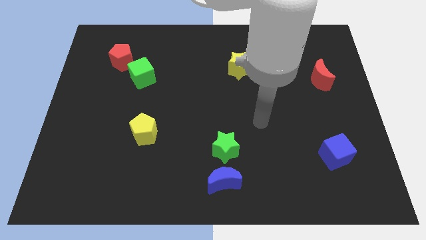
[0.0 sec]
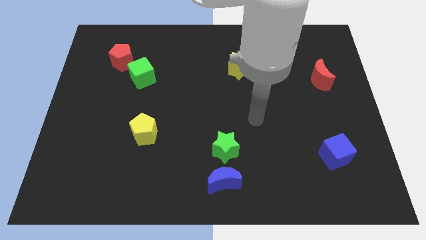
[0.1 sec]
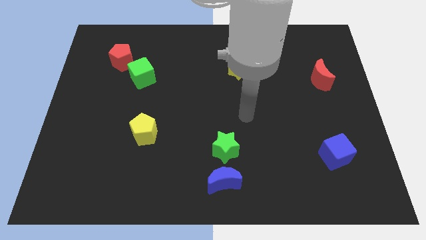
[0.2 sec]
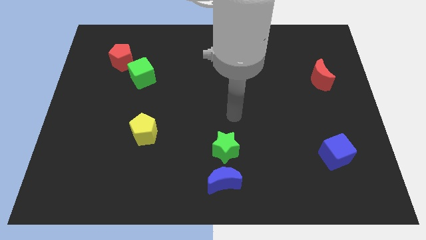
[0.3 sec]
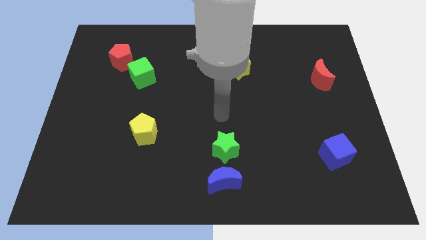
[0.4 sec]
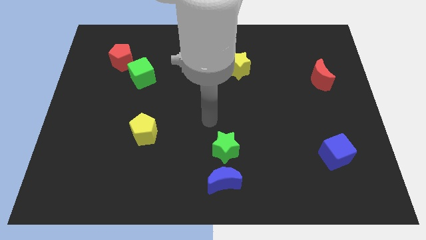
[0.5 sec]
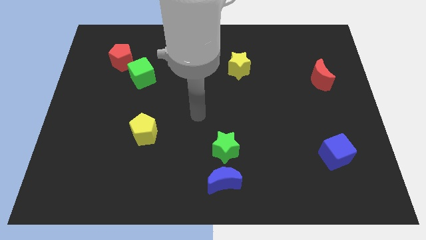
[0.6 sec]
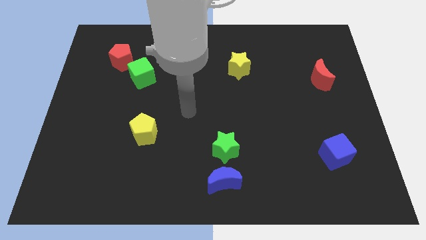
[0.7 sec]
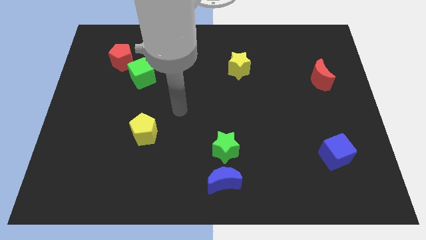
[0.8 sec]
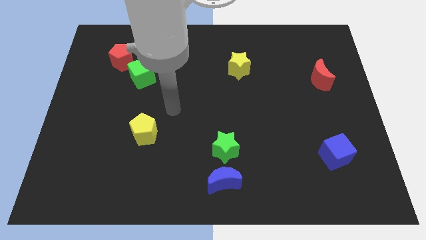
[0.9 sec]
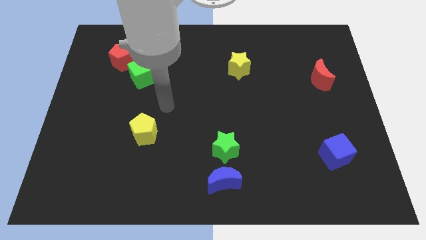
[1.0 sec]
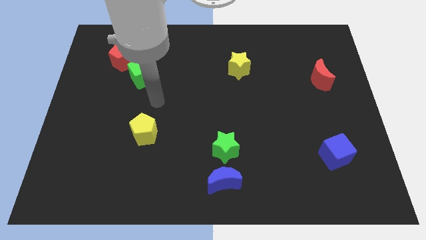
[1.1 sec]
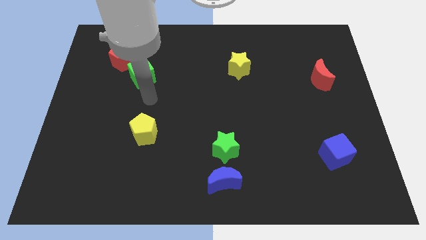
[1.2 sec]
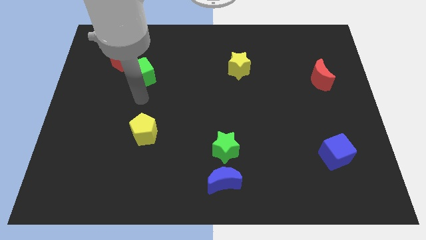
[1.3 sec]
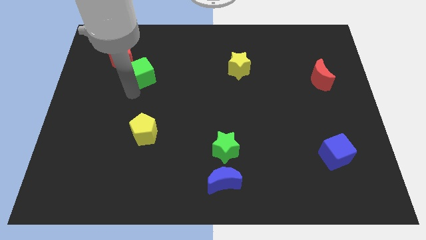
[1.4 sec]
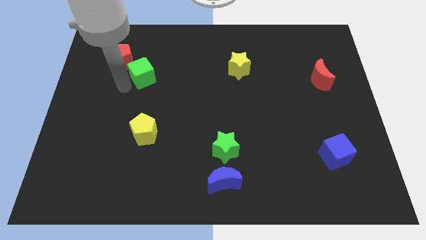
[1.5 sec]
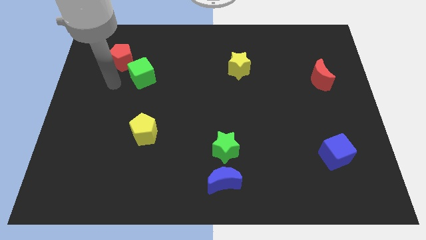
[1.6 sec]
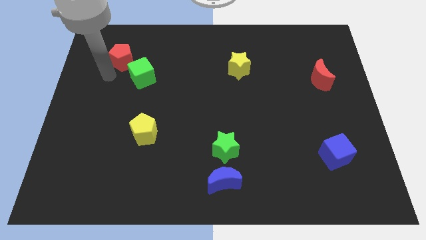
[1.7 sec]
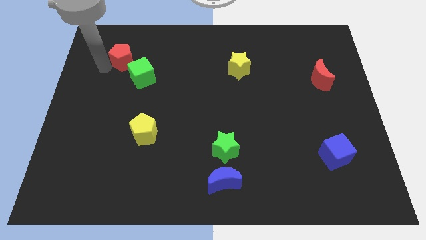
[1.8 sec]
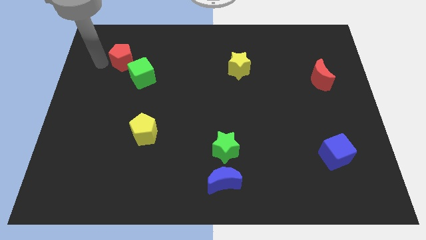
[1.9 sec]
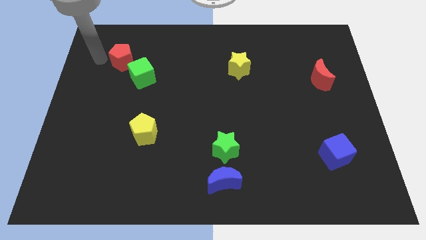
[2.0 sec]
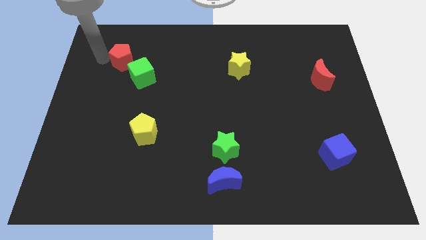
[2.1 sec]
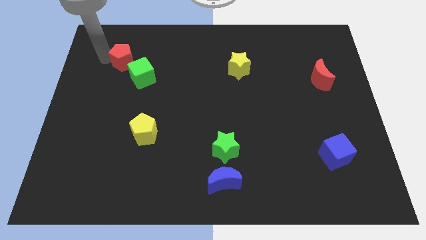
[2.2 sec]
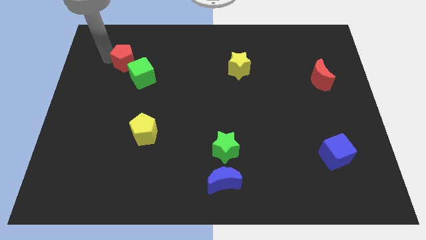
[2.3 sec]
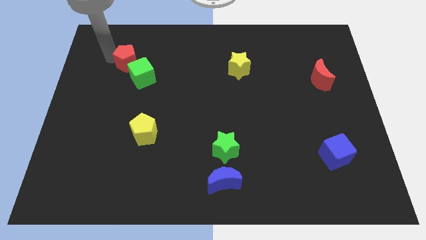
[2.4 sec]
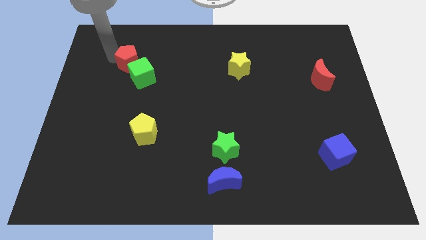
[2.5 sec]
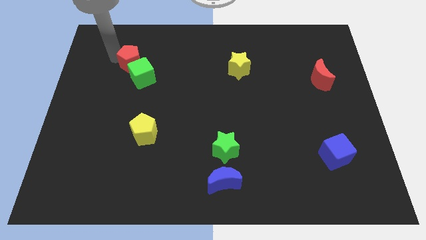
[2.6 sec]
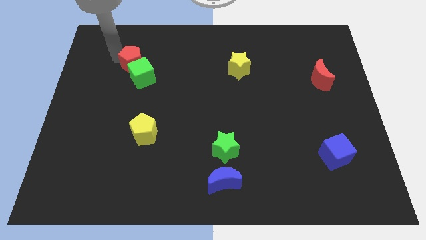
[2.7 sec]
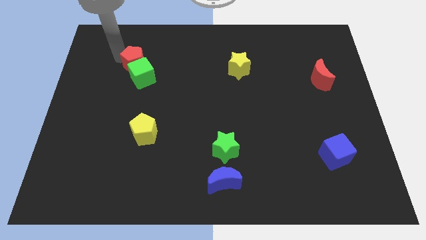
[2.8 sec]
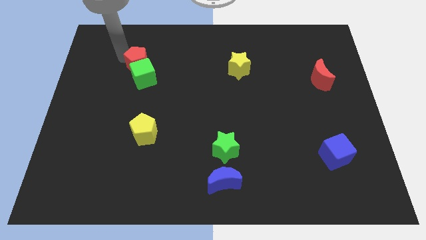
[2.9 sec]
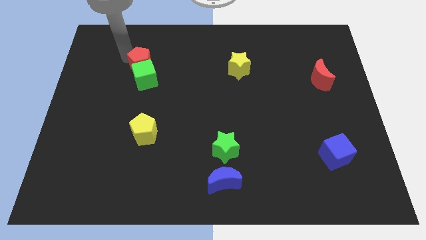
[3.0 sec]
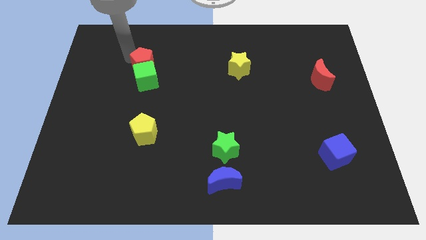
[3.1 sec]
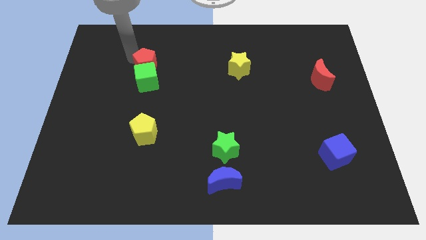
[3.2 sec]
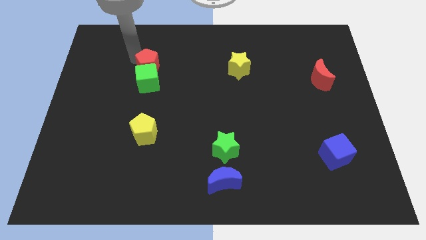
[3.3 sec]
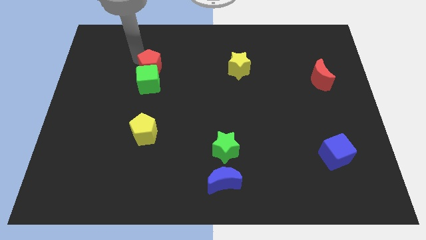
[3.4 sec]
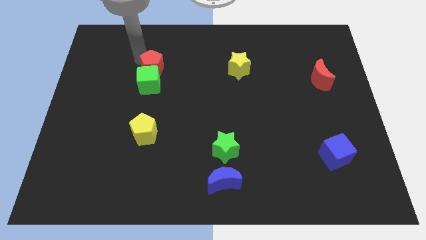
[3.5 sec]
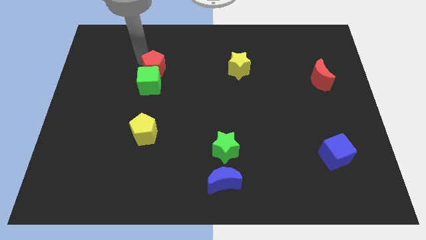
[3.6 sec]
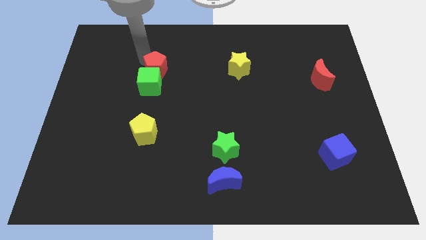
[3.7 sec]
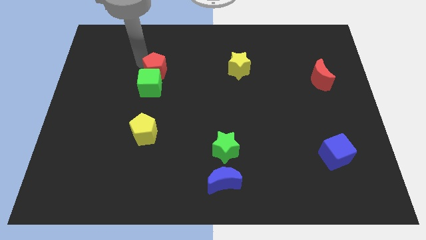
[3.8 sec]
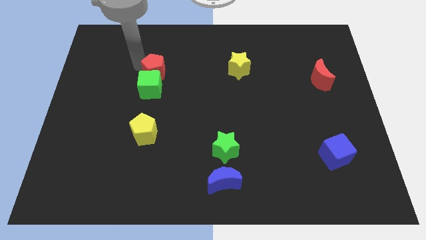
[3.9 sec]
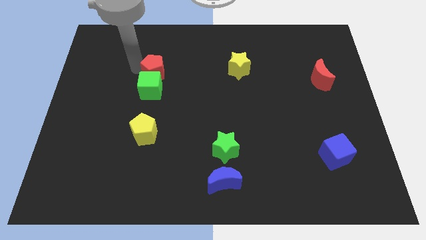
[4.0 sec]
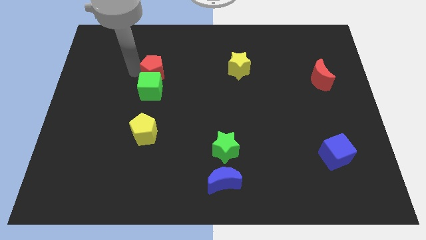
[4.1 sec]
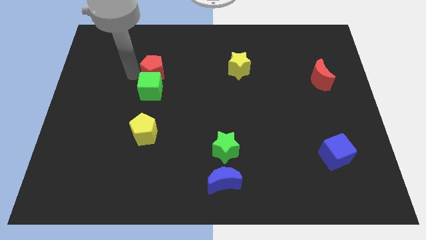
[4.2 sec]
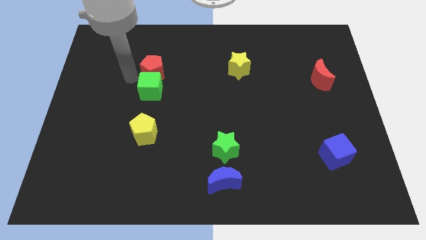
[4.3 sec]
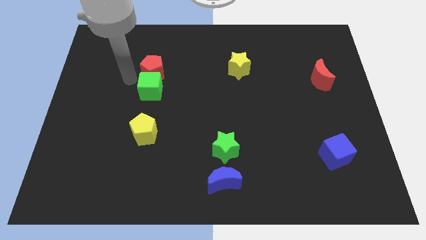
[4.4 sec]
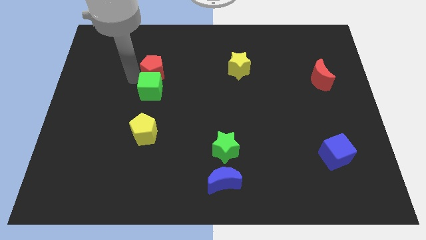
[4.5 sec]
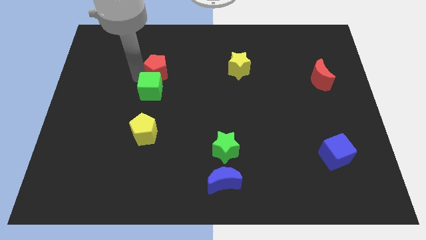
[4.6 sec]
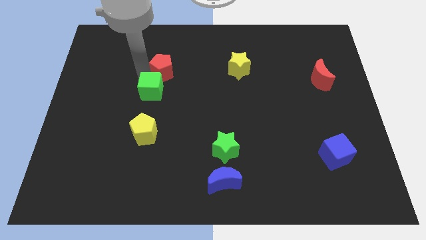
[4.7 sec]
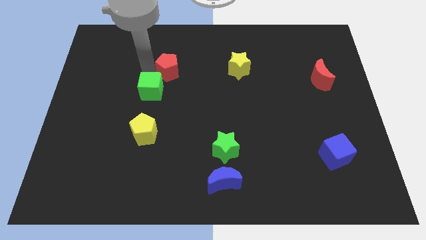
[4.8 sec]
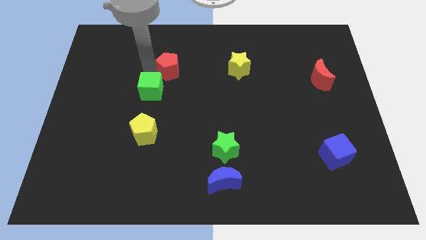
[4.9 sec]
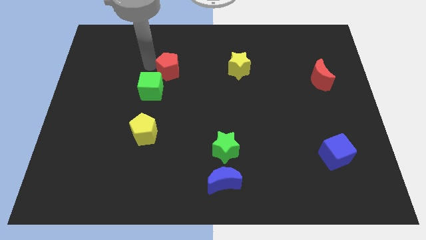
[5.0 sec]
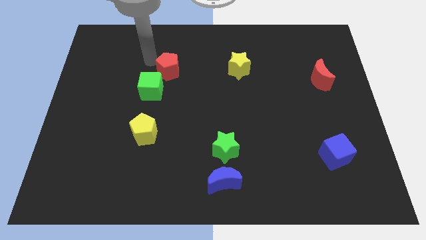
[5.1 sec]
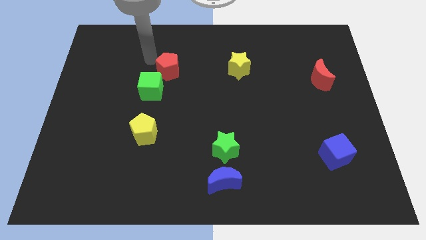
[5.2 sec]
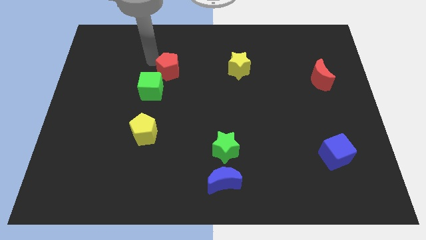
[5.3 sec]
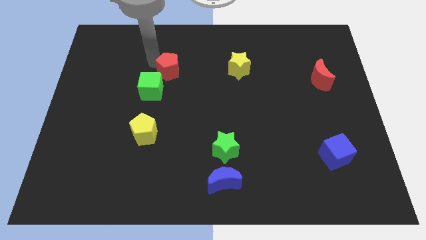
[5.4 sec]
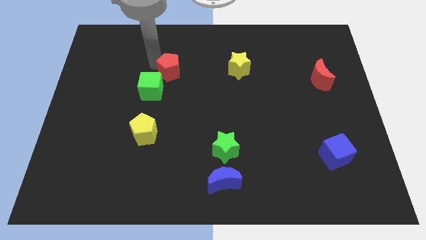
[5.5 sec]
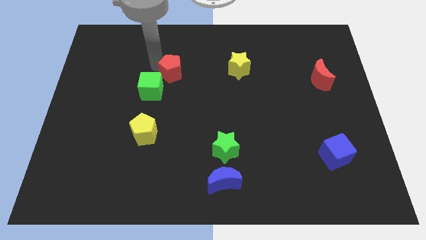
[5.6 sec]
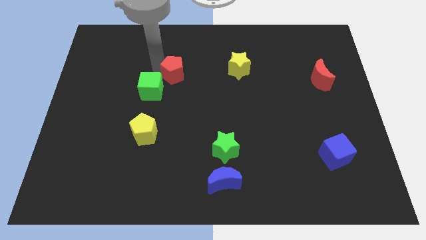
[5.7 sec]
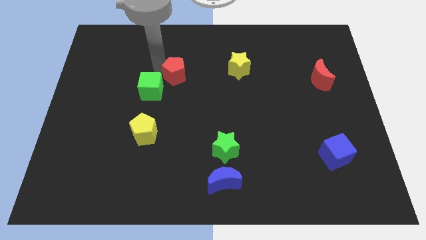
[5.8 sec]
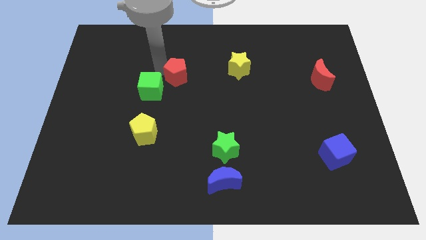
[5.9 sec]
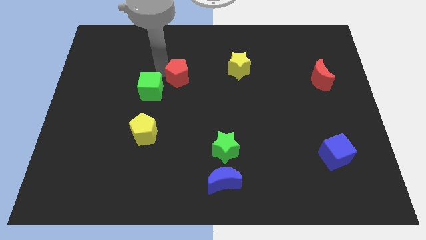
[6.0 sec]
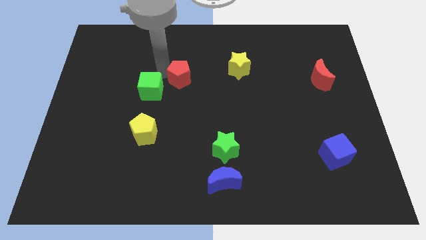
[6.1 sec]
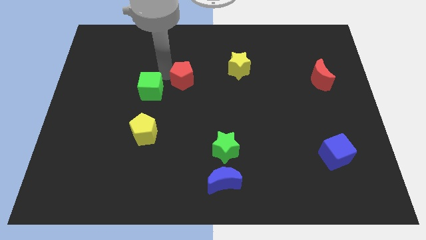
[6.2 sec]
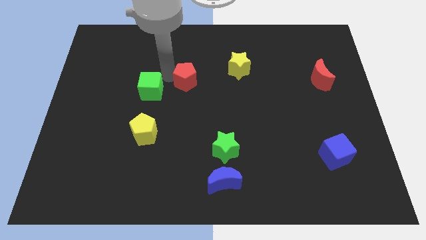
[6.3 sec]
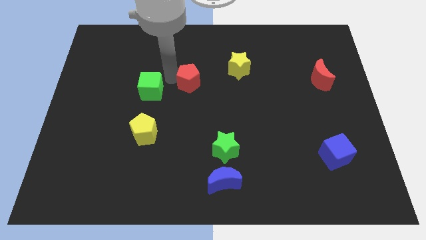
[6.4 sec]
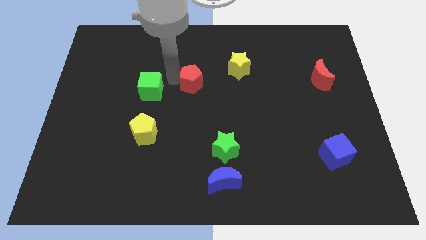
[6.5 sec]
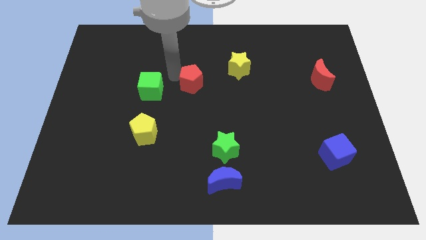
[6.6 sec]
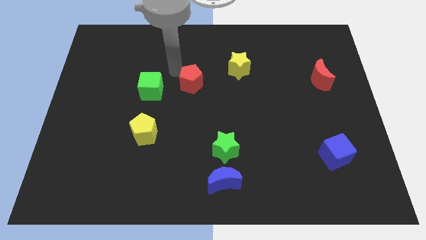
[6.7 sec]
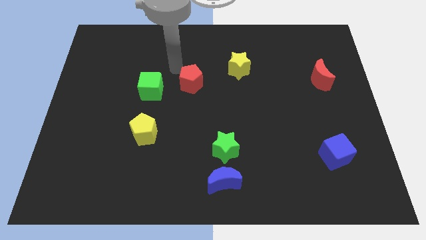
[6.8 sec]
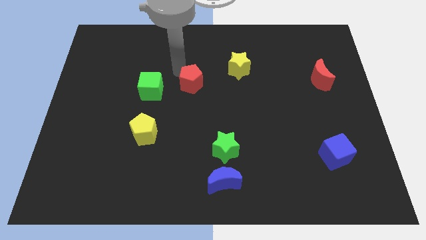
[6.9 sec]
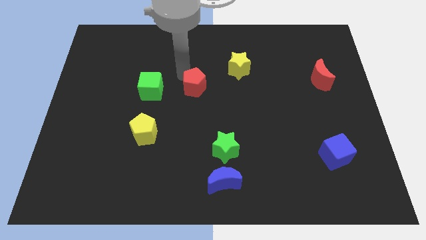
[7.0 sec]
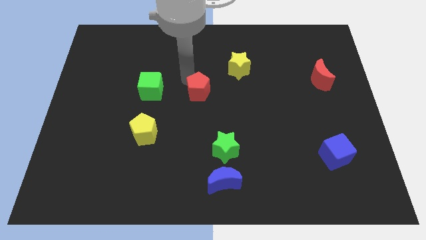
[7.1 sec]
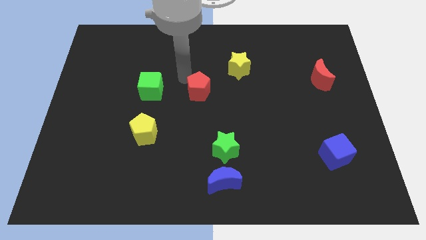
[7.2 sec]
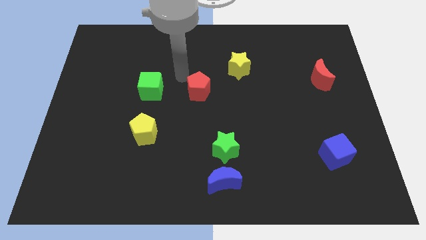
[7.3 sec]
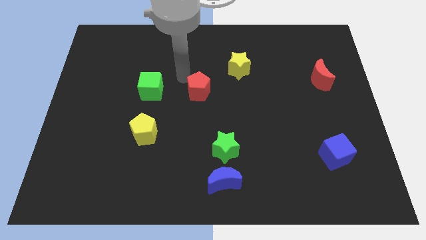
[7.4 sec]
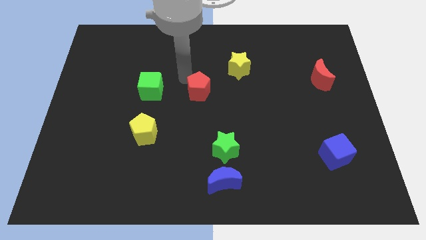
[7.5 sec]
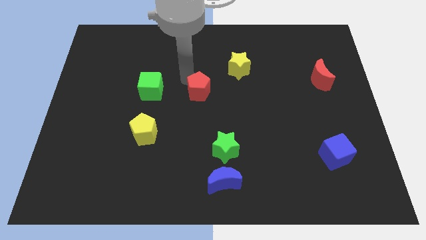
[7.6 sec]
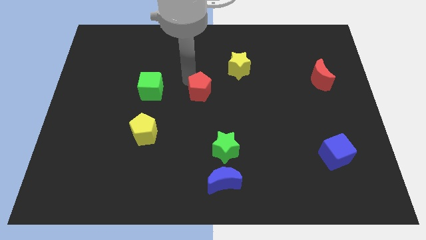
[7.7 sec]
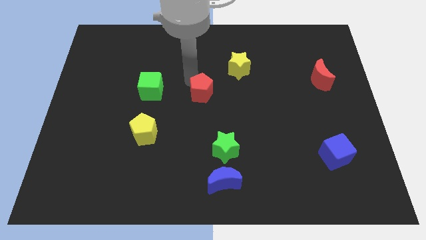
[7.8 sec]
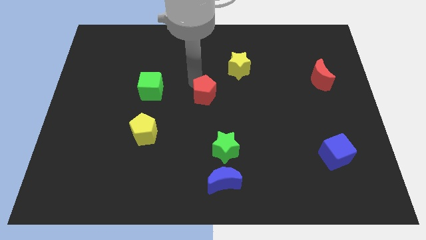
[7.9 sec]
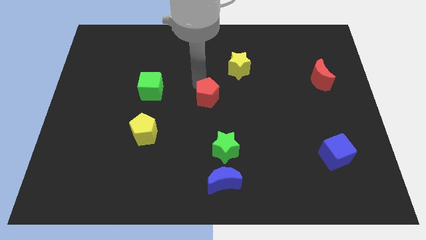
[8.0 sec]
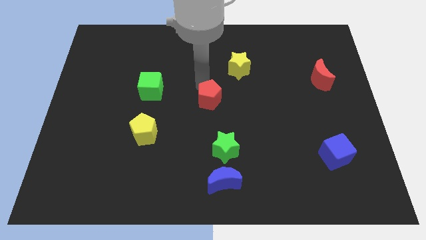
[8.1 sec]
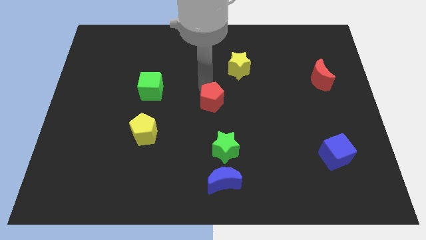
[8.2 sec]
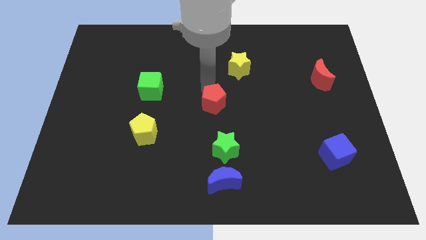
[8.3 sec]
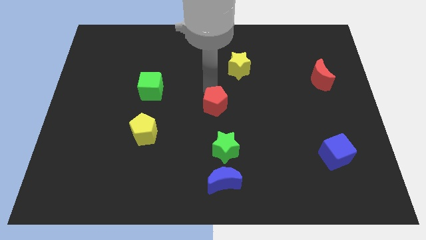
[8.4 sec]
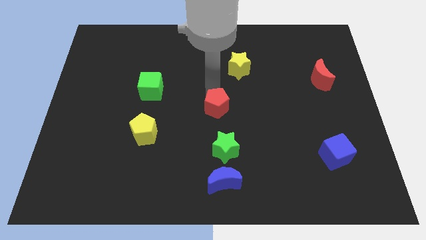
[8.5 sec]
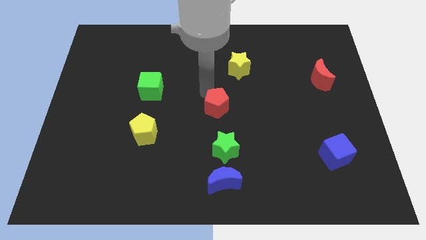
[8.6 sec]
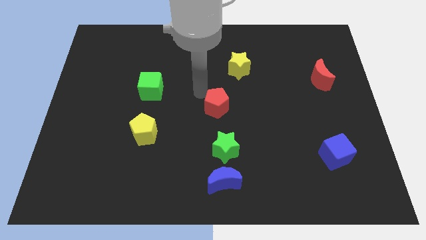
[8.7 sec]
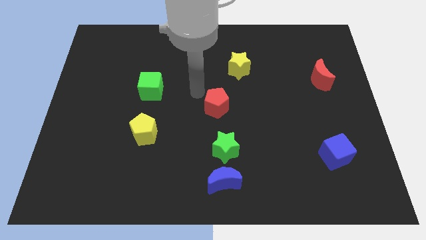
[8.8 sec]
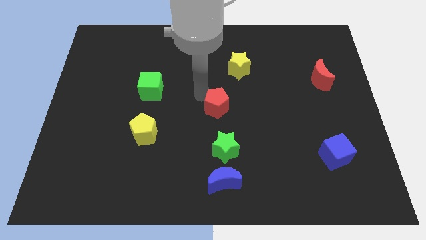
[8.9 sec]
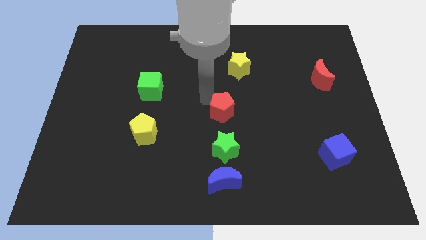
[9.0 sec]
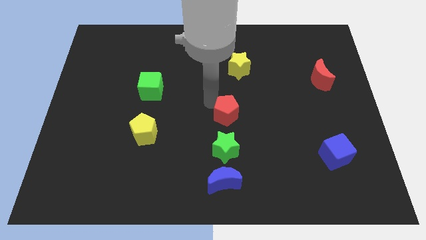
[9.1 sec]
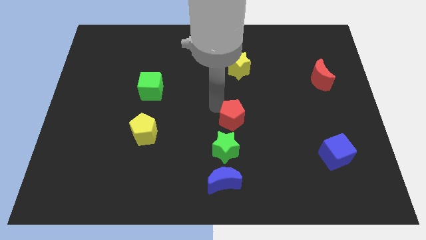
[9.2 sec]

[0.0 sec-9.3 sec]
slide the red pentagon to the top right side of the green star
